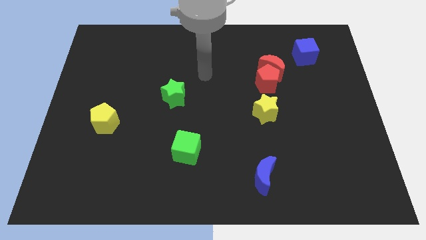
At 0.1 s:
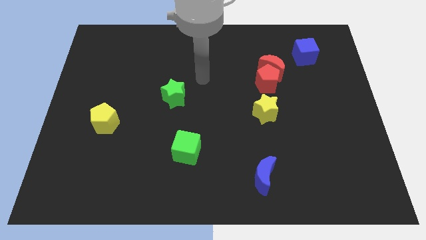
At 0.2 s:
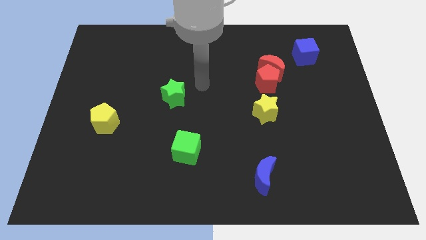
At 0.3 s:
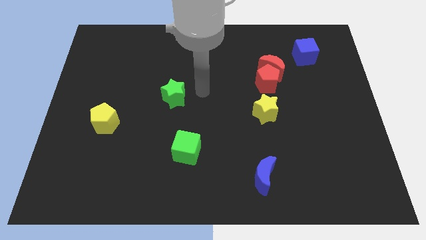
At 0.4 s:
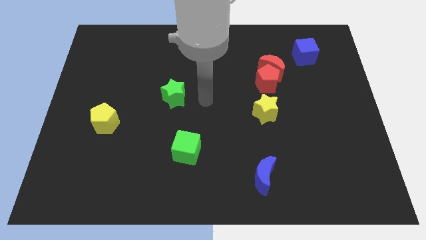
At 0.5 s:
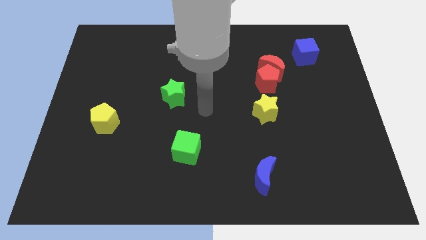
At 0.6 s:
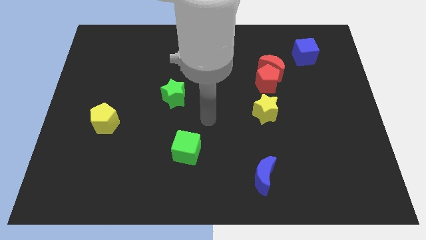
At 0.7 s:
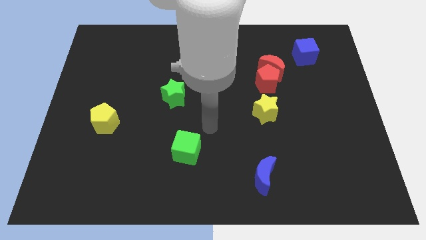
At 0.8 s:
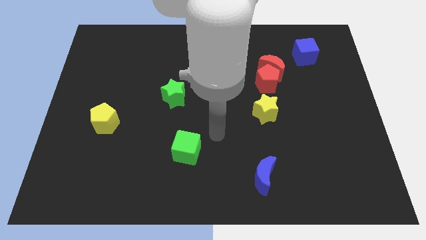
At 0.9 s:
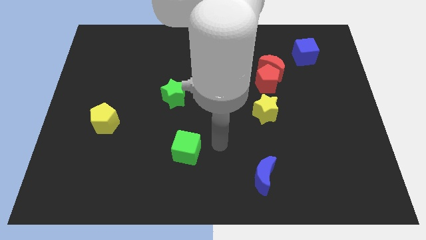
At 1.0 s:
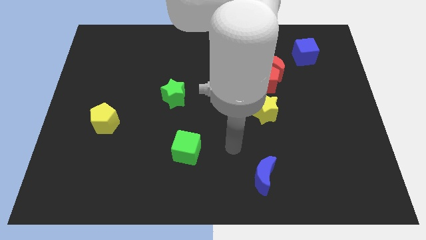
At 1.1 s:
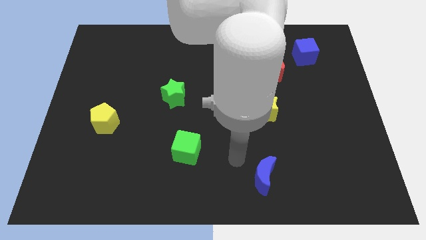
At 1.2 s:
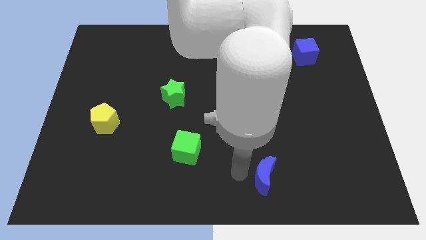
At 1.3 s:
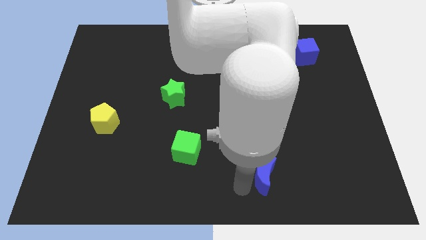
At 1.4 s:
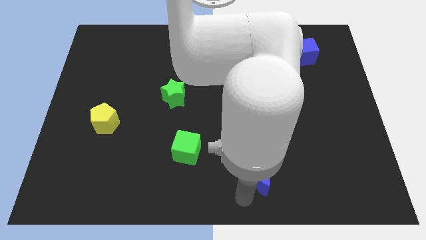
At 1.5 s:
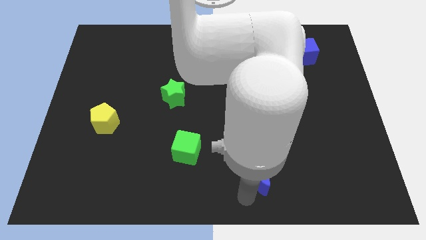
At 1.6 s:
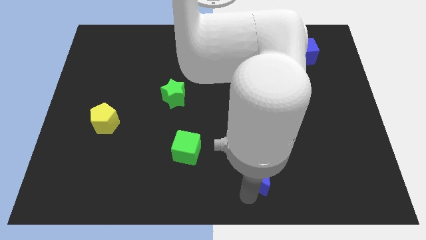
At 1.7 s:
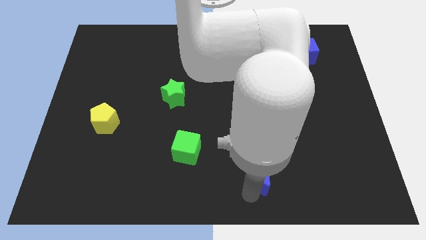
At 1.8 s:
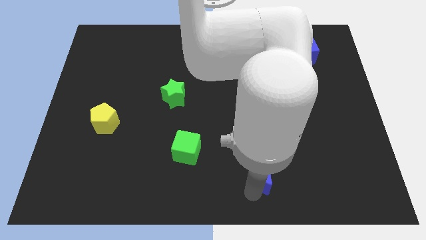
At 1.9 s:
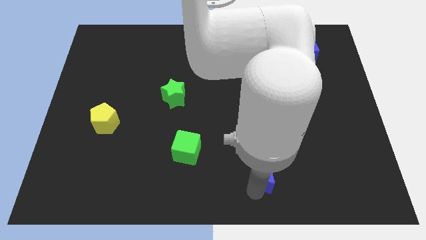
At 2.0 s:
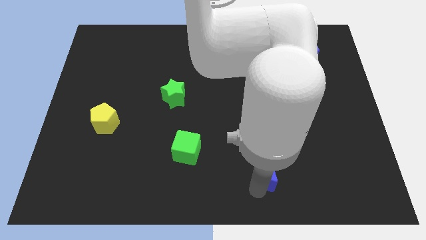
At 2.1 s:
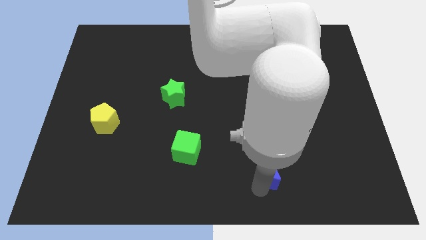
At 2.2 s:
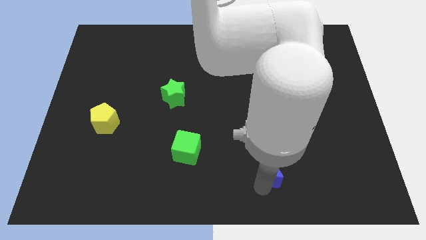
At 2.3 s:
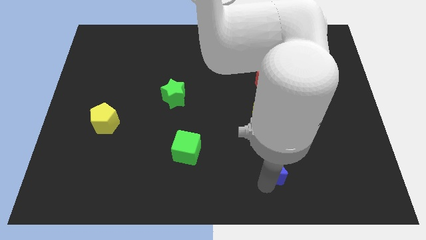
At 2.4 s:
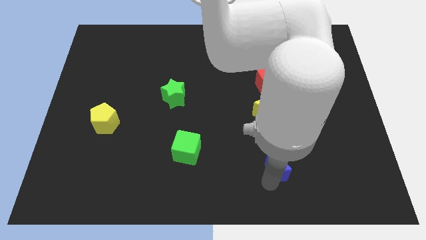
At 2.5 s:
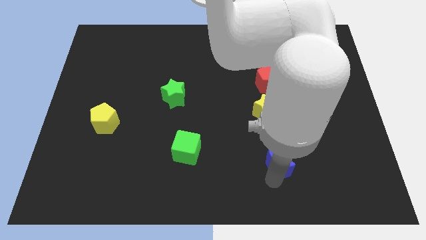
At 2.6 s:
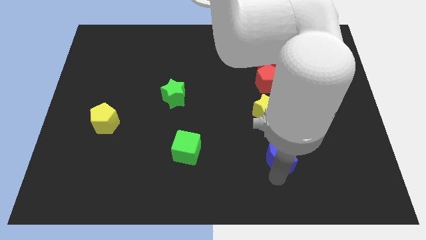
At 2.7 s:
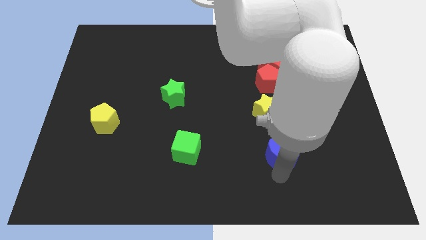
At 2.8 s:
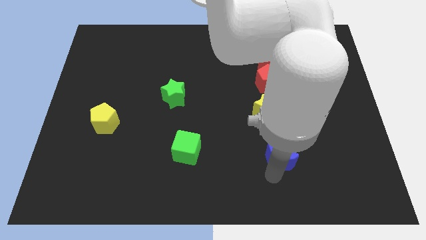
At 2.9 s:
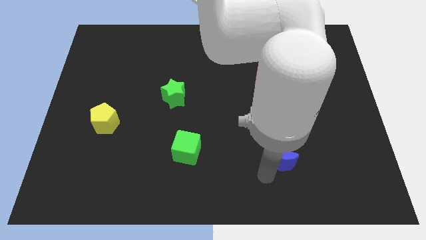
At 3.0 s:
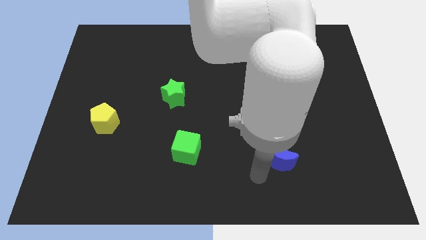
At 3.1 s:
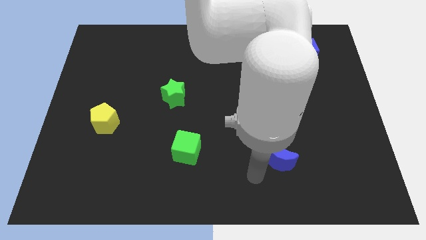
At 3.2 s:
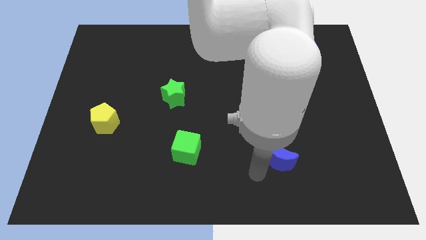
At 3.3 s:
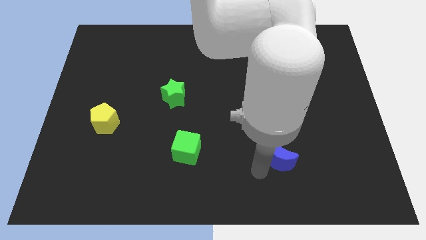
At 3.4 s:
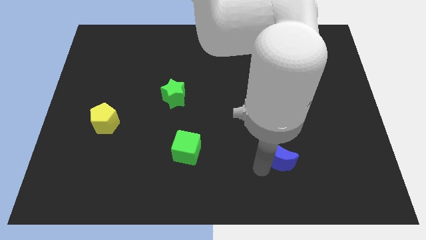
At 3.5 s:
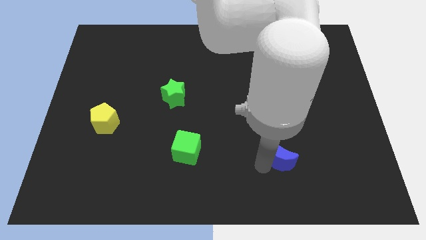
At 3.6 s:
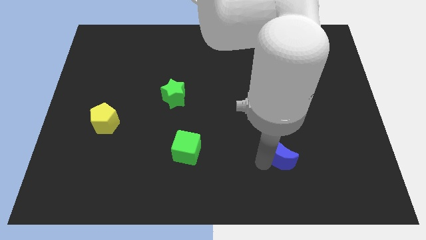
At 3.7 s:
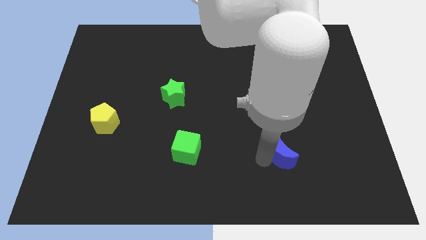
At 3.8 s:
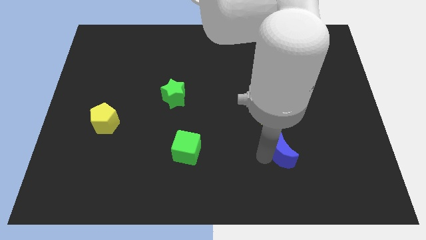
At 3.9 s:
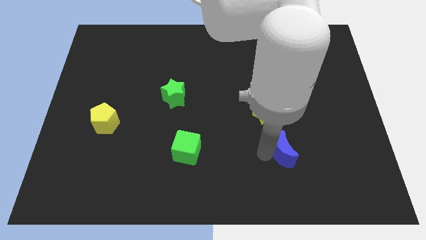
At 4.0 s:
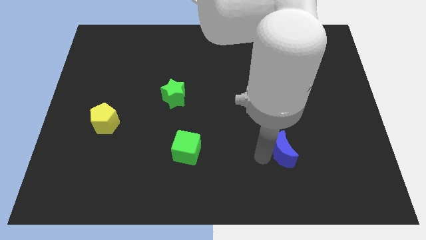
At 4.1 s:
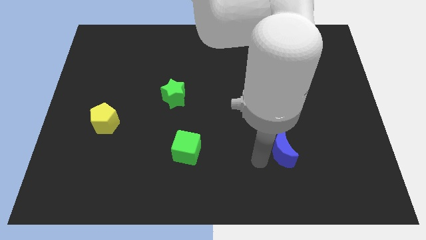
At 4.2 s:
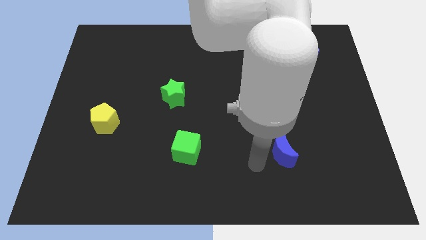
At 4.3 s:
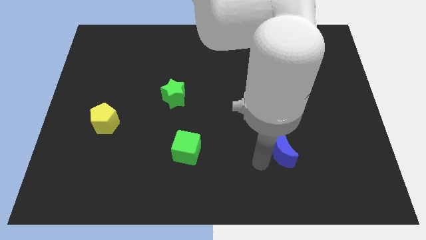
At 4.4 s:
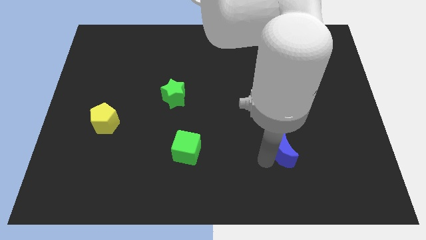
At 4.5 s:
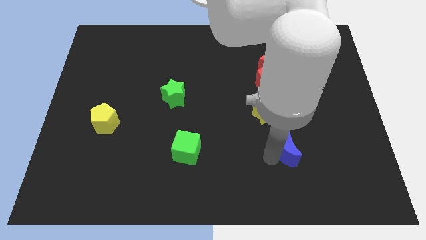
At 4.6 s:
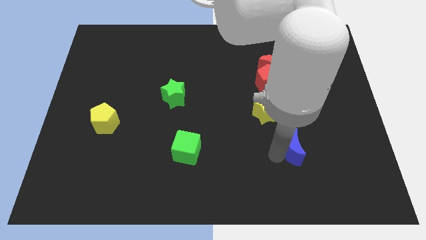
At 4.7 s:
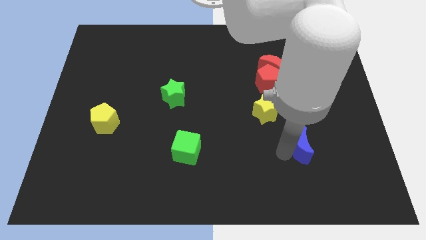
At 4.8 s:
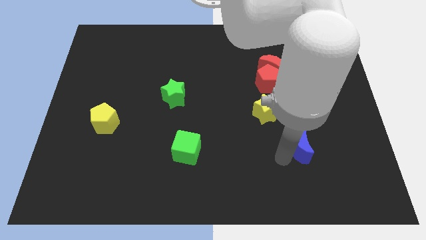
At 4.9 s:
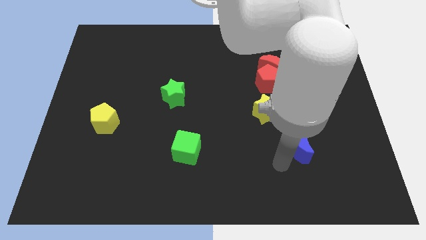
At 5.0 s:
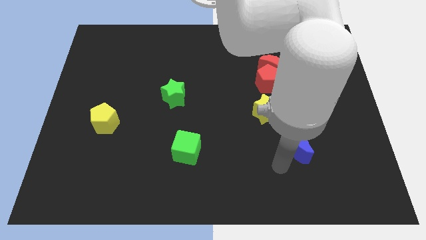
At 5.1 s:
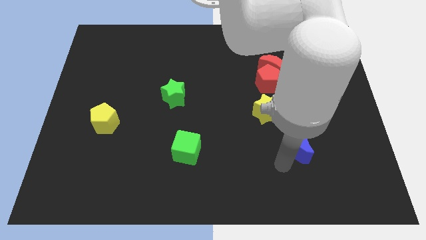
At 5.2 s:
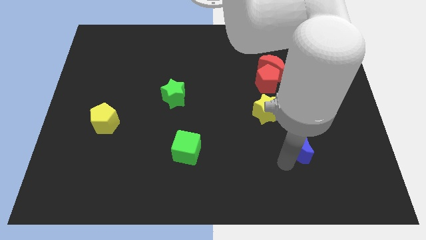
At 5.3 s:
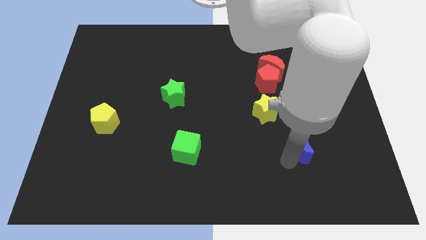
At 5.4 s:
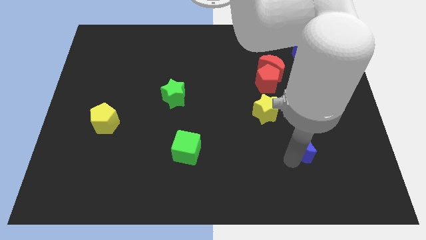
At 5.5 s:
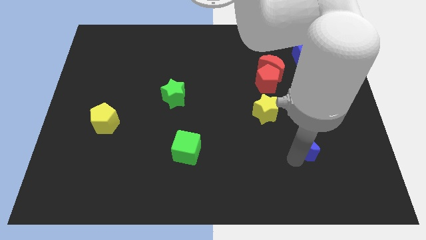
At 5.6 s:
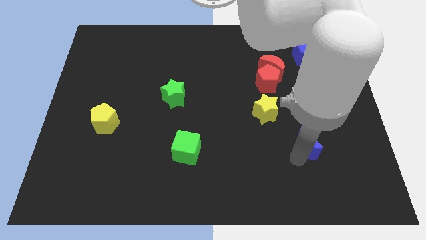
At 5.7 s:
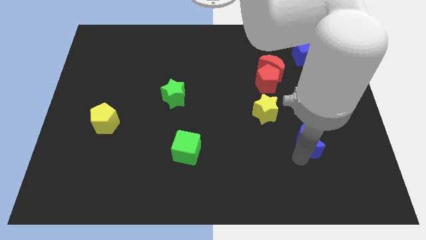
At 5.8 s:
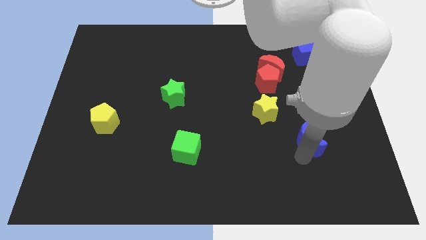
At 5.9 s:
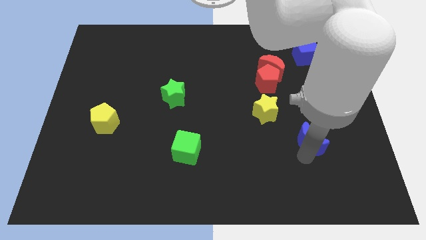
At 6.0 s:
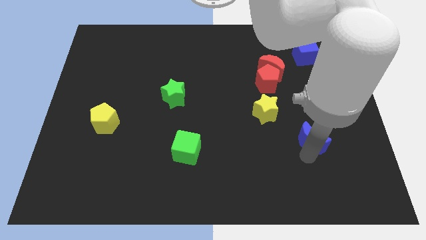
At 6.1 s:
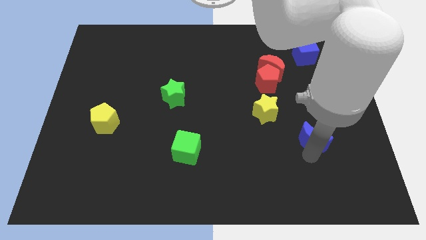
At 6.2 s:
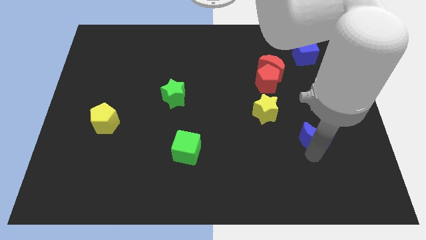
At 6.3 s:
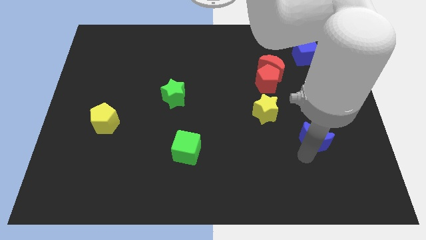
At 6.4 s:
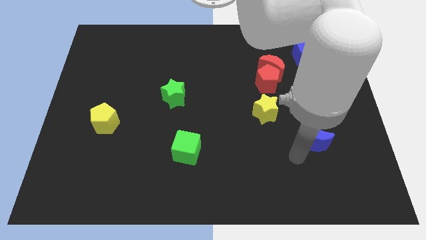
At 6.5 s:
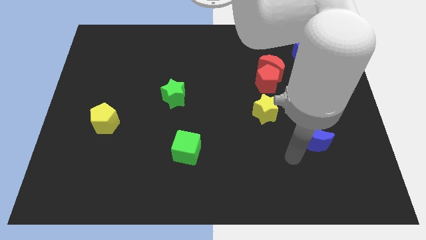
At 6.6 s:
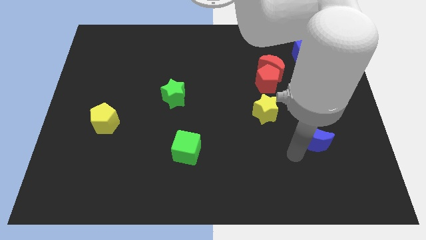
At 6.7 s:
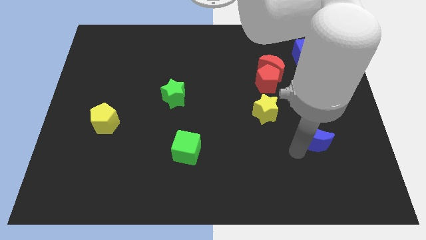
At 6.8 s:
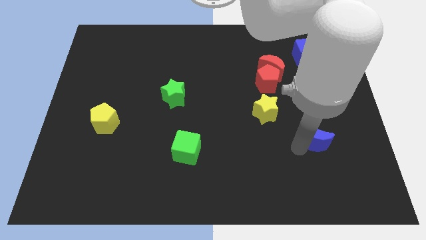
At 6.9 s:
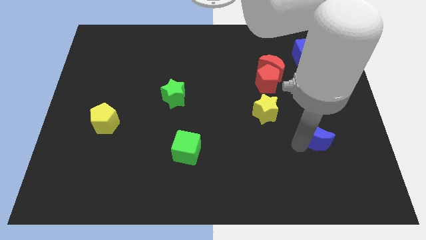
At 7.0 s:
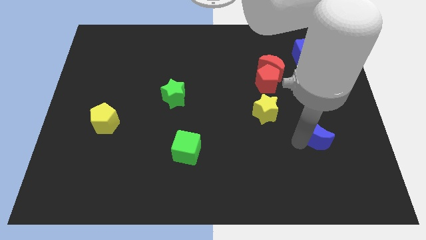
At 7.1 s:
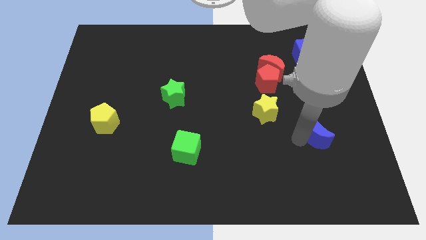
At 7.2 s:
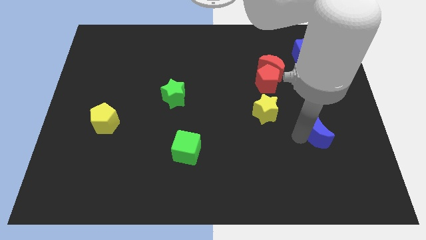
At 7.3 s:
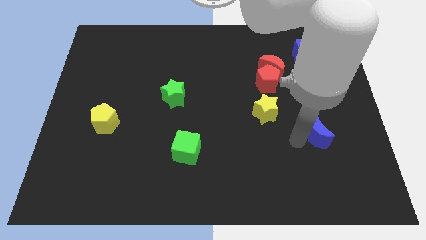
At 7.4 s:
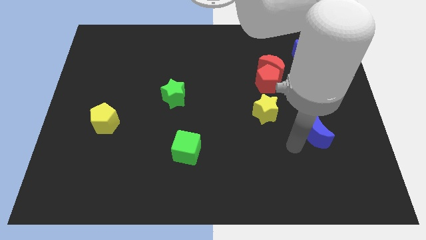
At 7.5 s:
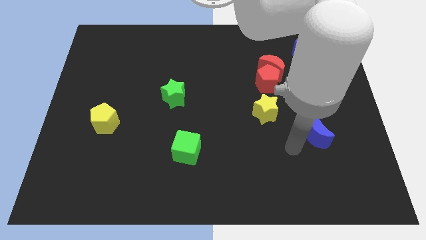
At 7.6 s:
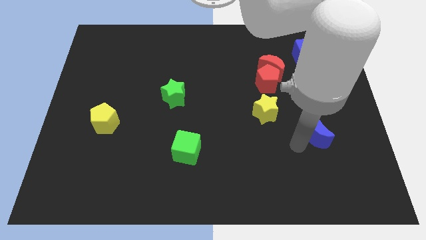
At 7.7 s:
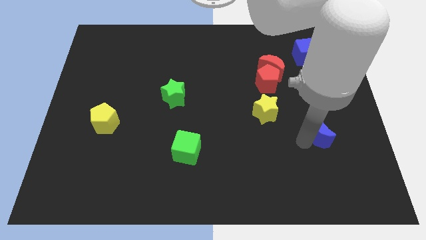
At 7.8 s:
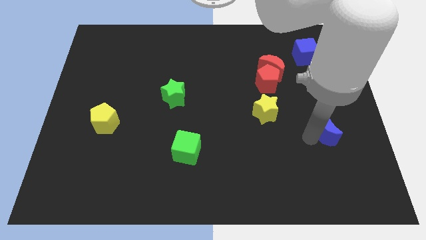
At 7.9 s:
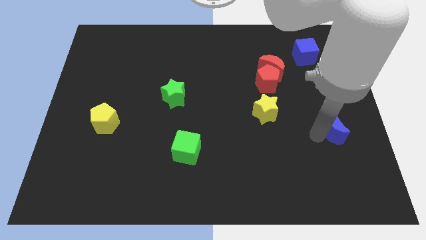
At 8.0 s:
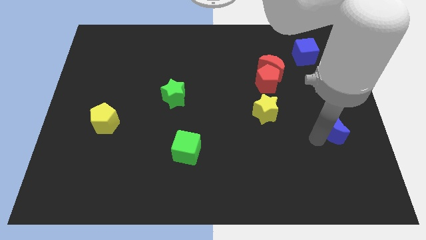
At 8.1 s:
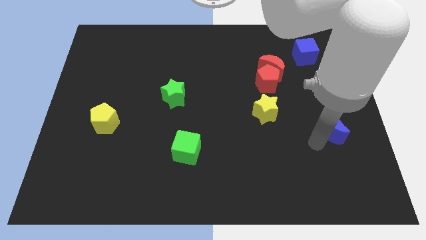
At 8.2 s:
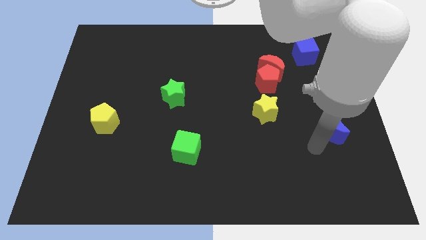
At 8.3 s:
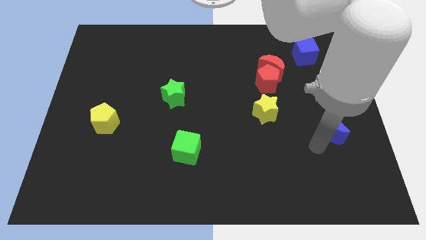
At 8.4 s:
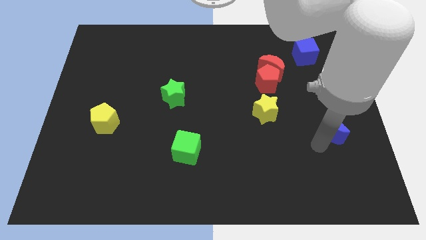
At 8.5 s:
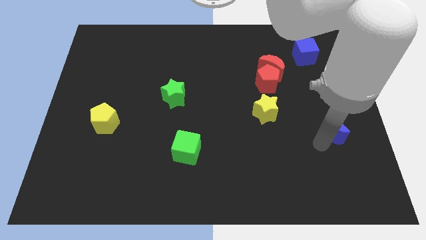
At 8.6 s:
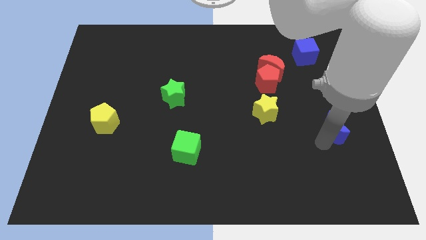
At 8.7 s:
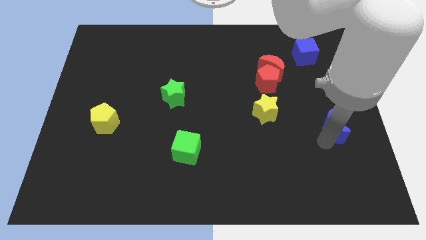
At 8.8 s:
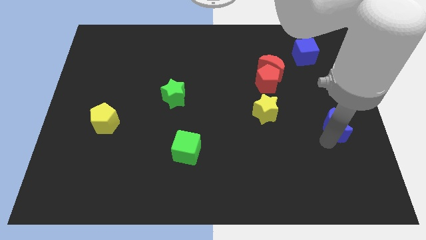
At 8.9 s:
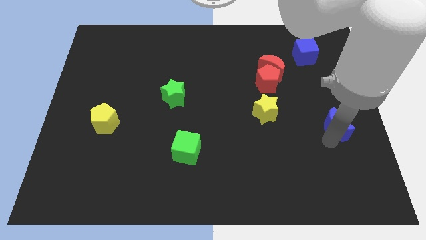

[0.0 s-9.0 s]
slide the blue moon to the right side of the board
